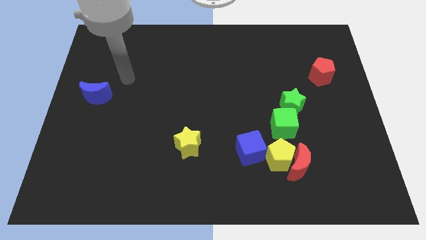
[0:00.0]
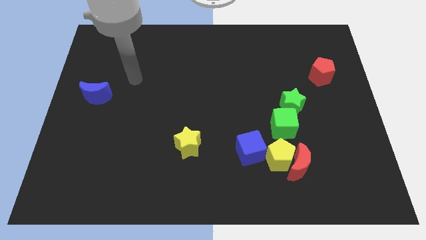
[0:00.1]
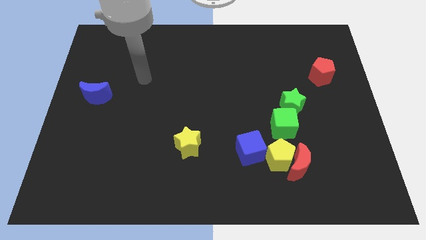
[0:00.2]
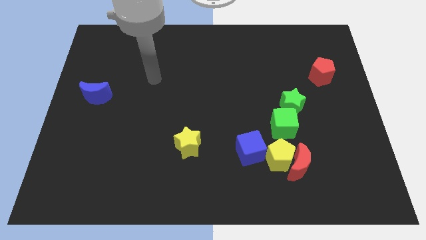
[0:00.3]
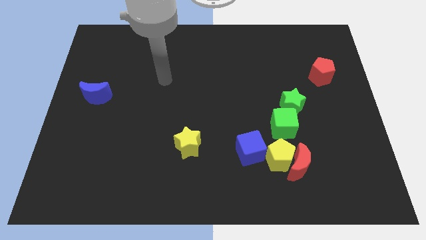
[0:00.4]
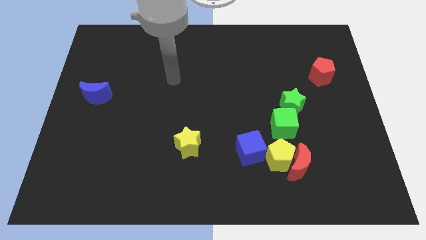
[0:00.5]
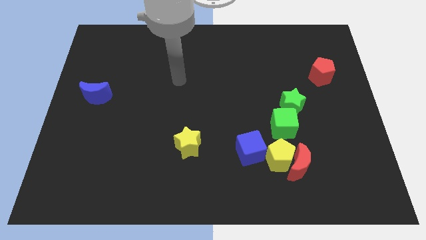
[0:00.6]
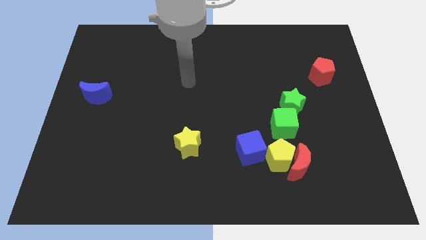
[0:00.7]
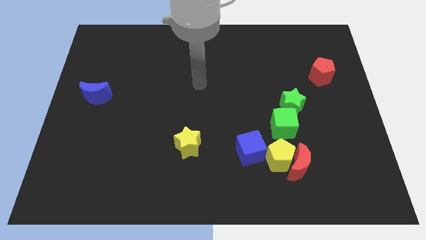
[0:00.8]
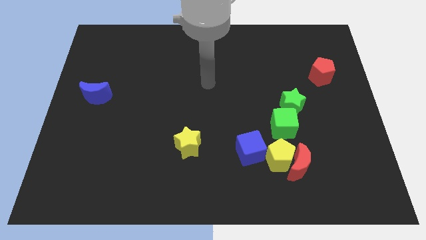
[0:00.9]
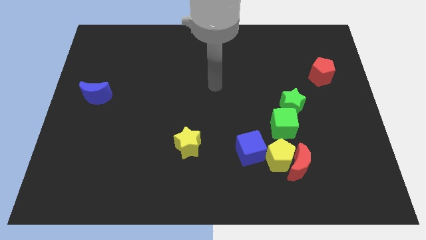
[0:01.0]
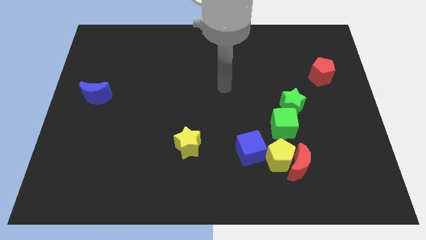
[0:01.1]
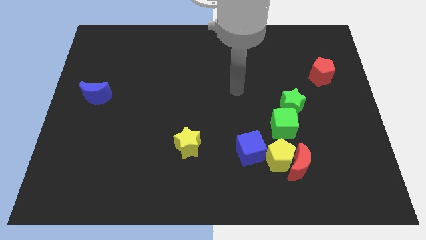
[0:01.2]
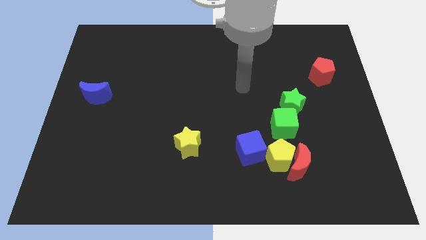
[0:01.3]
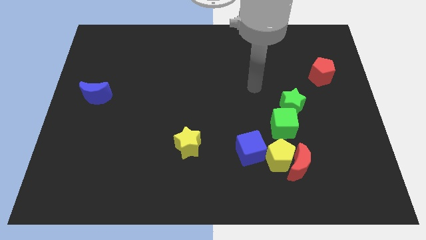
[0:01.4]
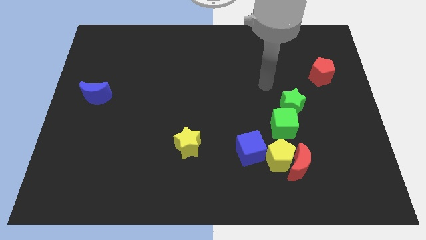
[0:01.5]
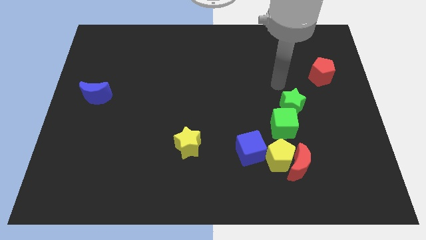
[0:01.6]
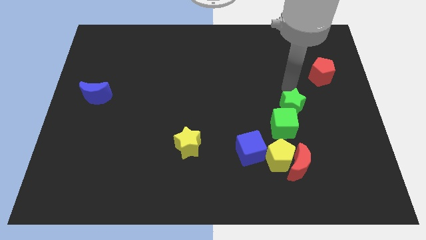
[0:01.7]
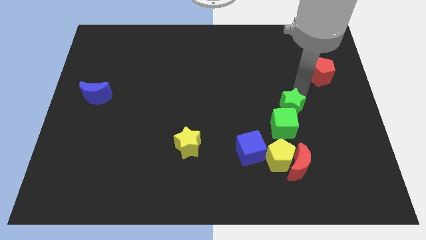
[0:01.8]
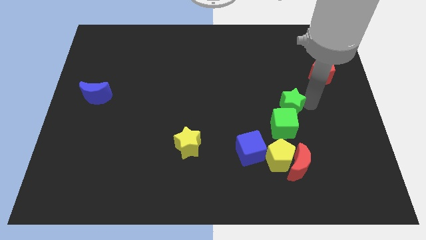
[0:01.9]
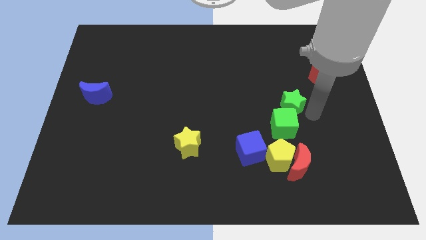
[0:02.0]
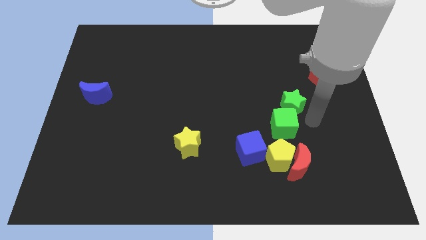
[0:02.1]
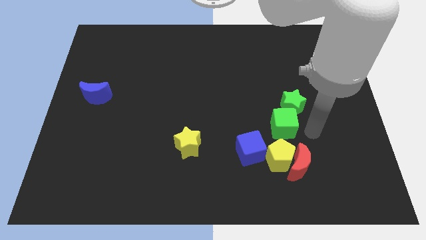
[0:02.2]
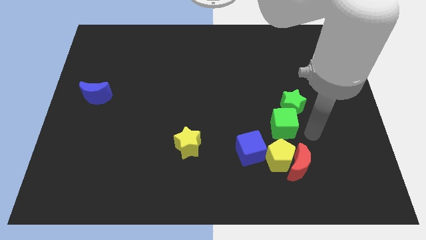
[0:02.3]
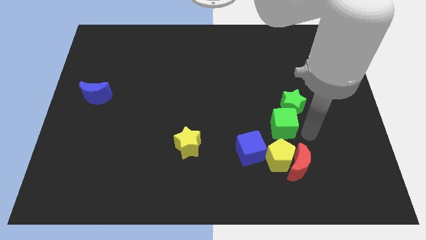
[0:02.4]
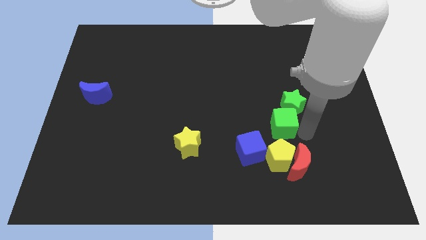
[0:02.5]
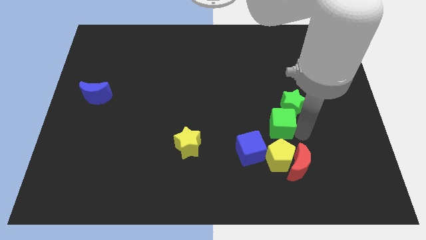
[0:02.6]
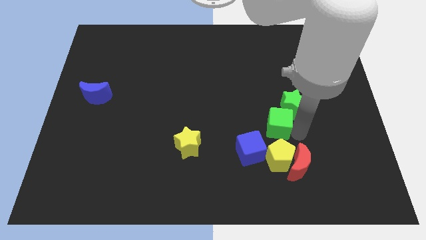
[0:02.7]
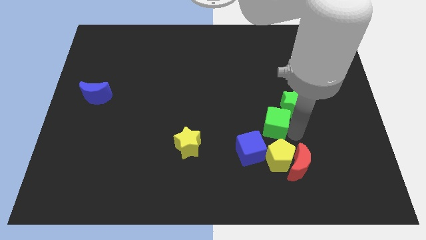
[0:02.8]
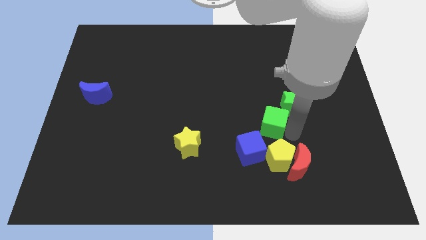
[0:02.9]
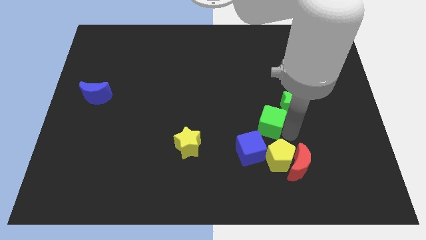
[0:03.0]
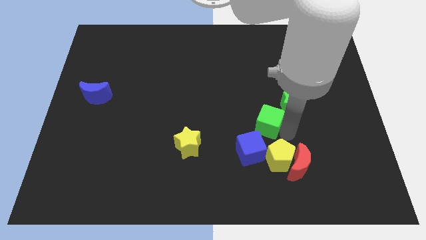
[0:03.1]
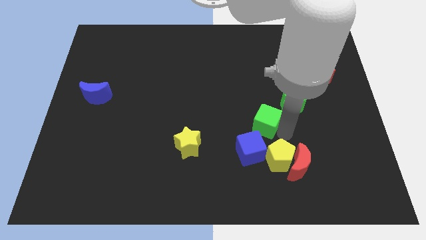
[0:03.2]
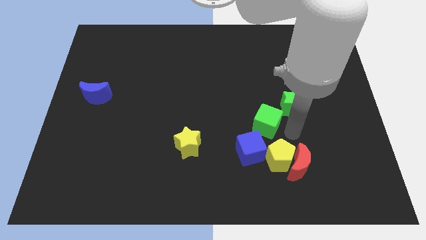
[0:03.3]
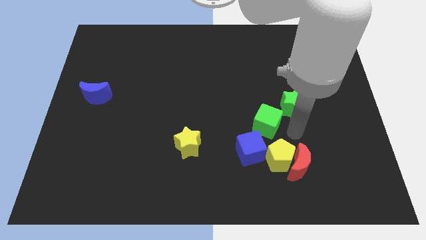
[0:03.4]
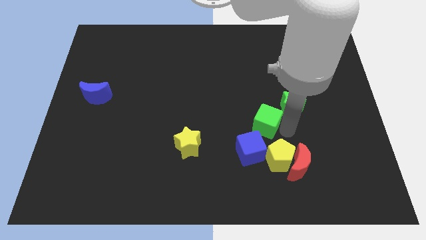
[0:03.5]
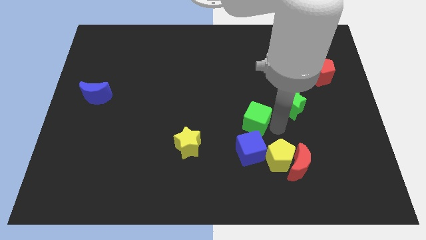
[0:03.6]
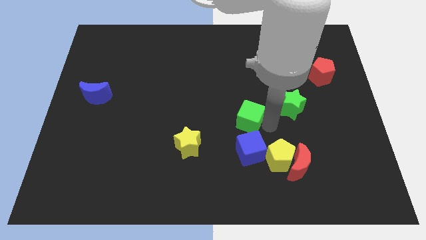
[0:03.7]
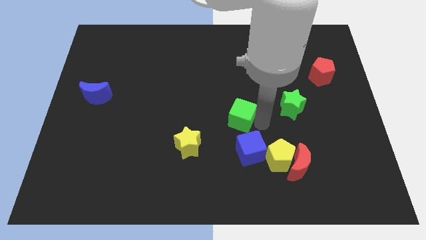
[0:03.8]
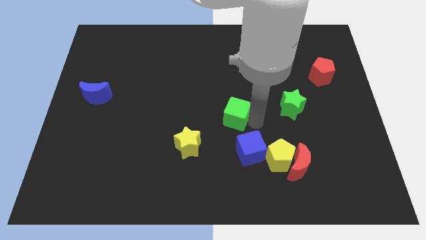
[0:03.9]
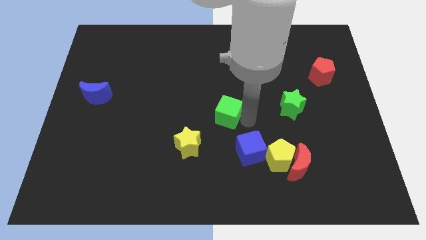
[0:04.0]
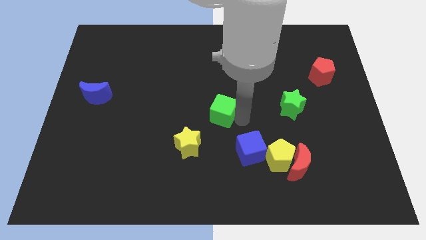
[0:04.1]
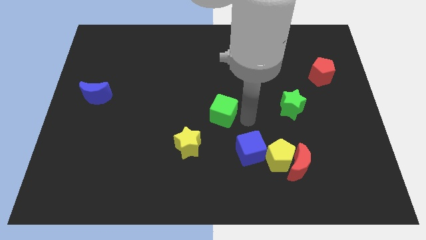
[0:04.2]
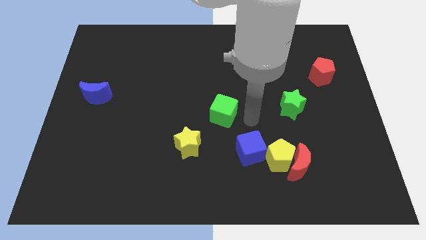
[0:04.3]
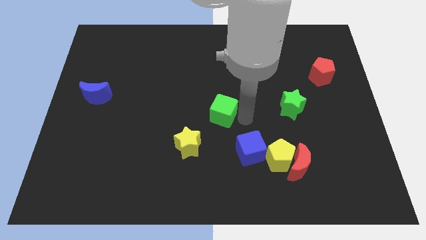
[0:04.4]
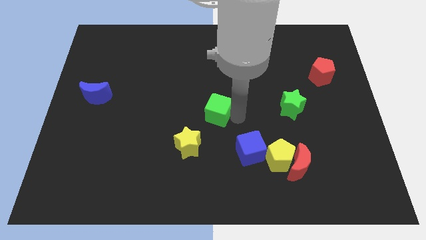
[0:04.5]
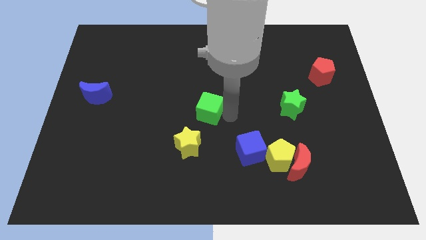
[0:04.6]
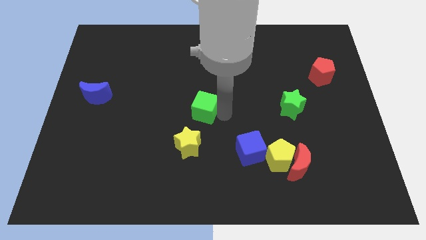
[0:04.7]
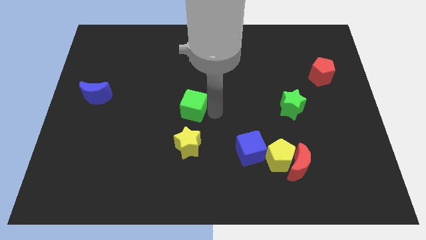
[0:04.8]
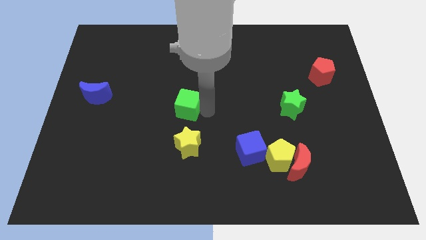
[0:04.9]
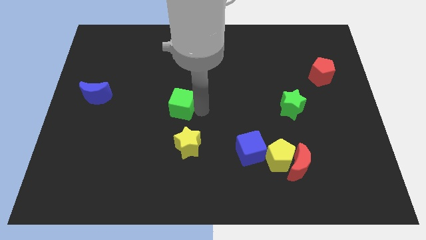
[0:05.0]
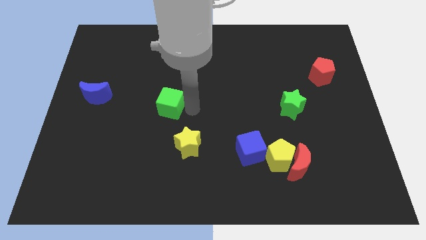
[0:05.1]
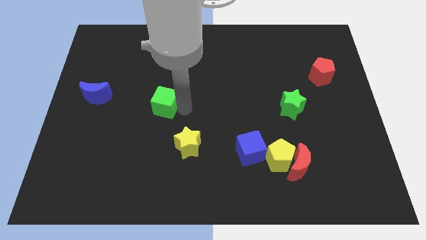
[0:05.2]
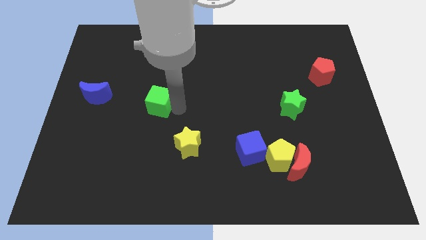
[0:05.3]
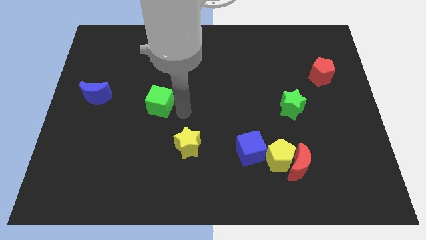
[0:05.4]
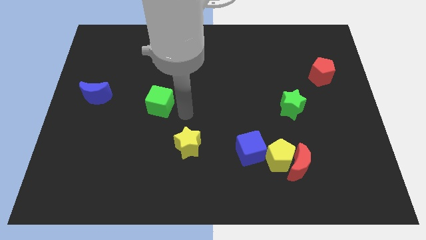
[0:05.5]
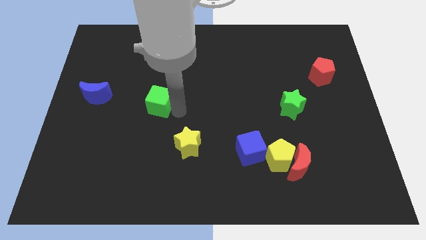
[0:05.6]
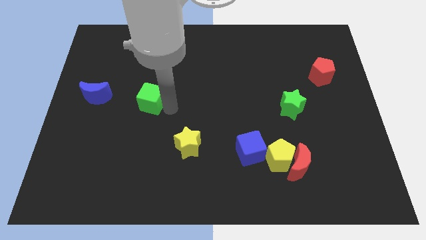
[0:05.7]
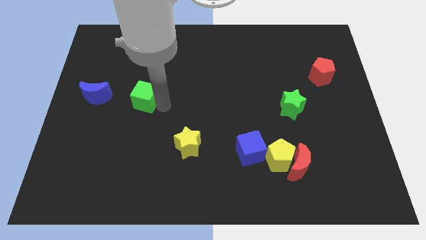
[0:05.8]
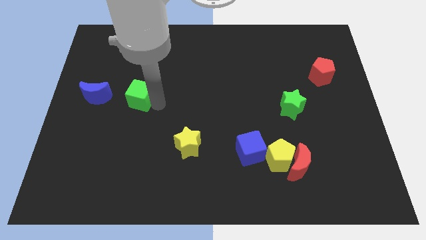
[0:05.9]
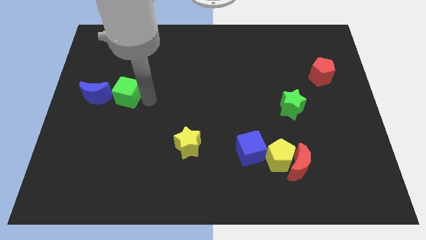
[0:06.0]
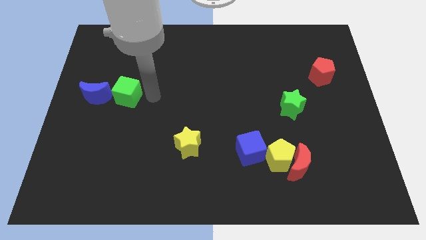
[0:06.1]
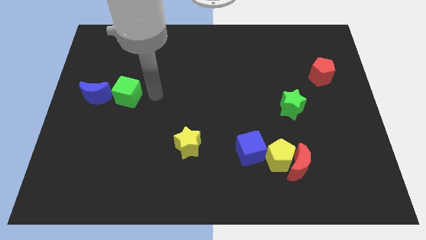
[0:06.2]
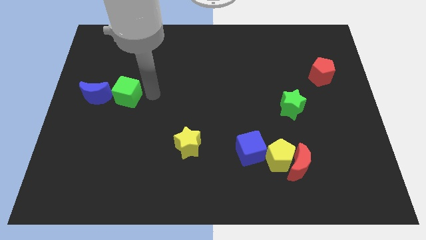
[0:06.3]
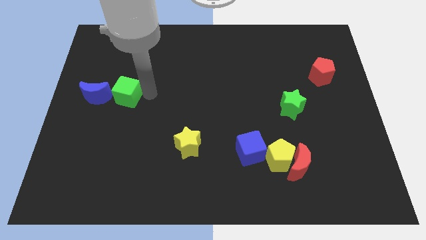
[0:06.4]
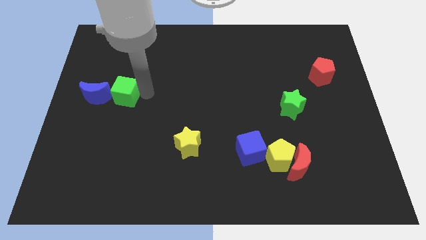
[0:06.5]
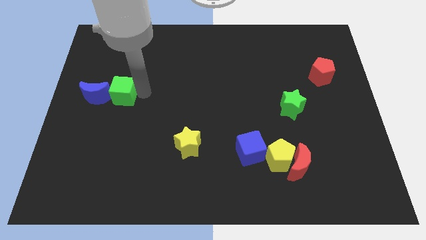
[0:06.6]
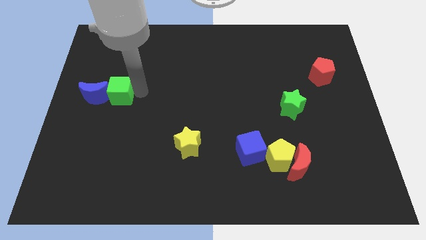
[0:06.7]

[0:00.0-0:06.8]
push the green cube to the blue moon

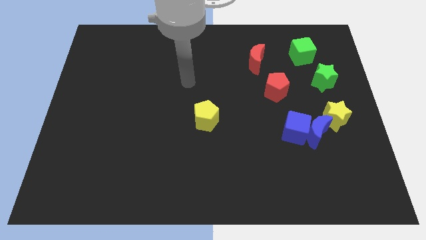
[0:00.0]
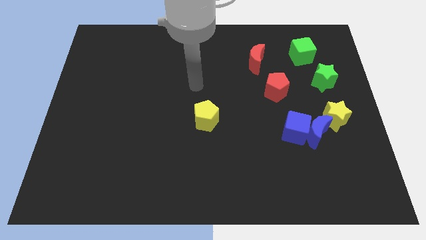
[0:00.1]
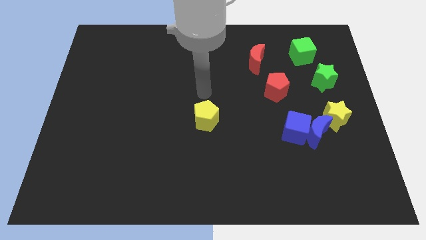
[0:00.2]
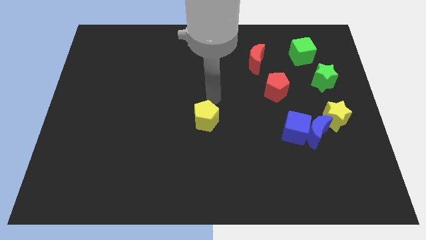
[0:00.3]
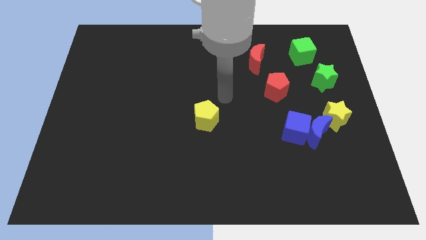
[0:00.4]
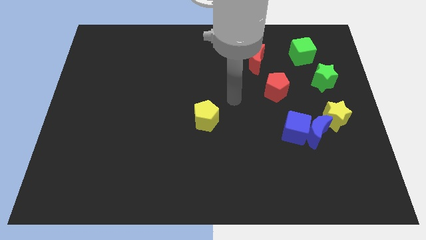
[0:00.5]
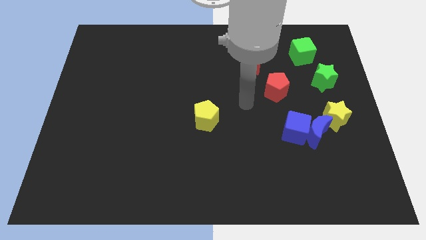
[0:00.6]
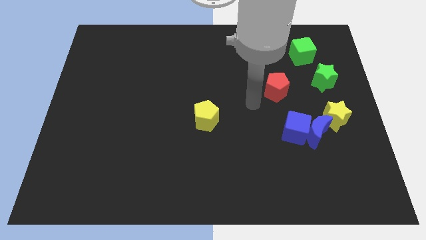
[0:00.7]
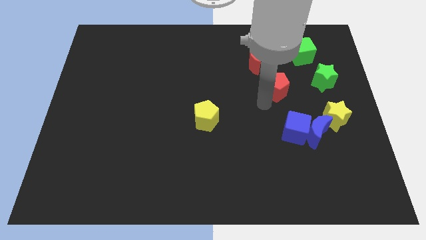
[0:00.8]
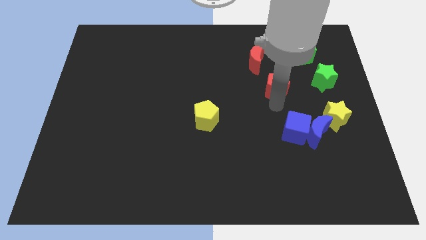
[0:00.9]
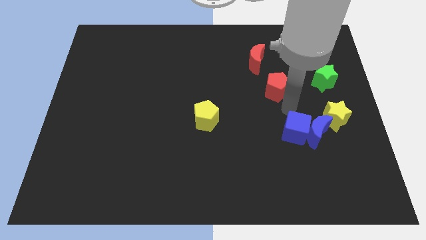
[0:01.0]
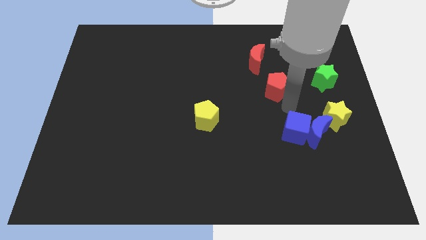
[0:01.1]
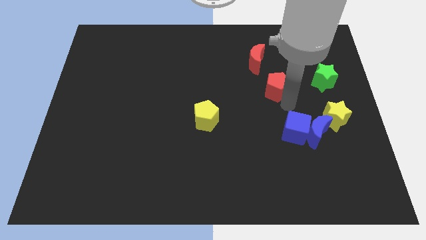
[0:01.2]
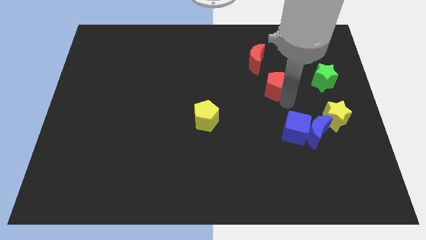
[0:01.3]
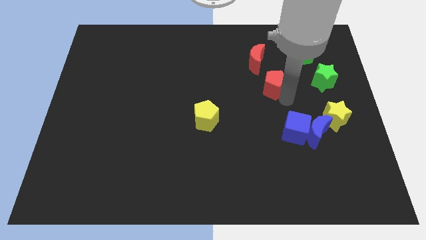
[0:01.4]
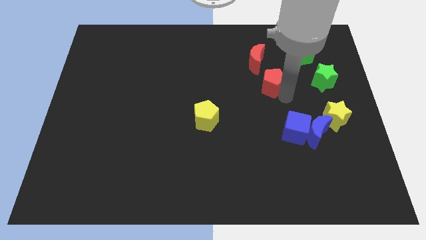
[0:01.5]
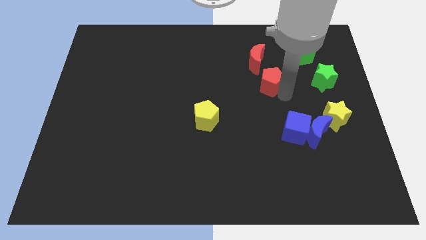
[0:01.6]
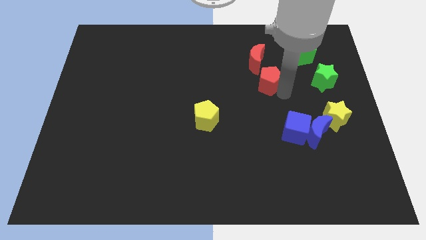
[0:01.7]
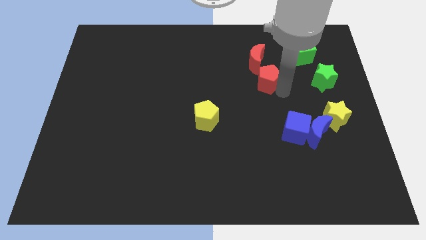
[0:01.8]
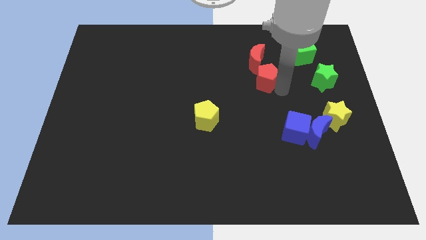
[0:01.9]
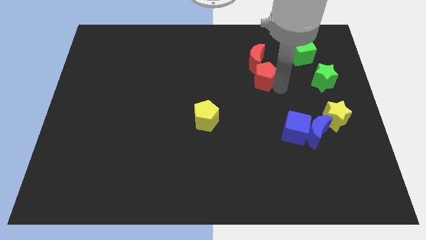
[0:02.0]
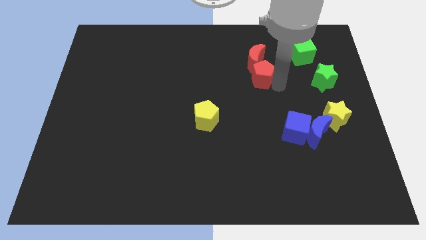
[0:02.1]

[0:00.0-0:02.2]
push the red pentagon next to the red moon
